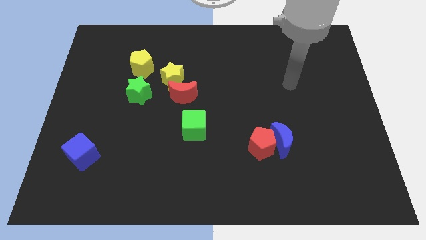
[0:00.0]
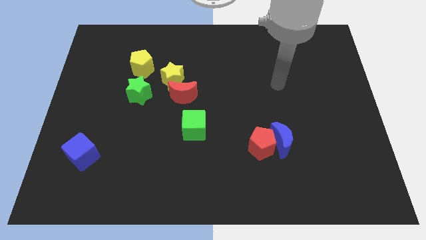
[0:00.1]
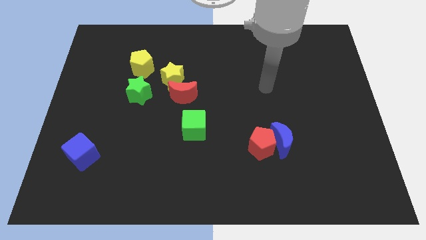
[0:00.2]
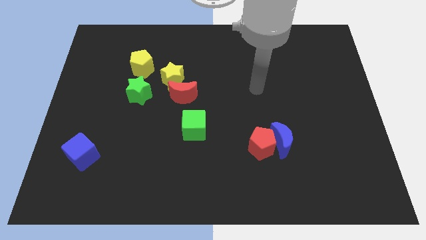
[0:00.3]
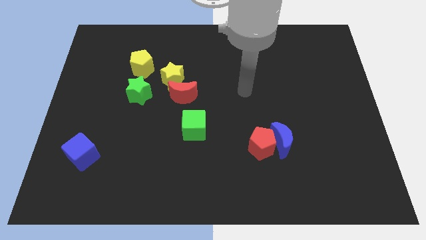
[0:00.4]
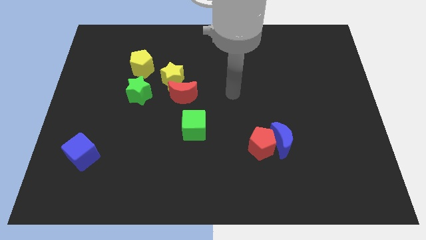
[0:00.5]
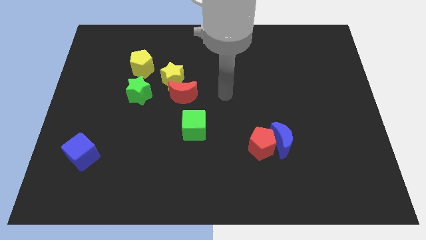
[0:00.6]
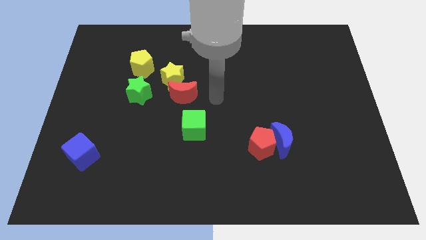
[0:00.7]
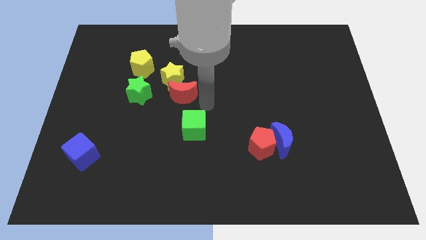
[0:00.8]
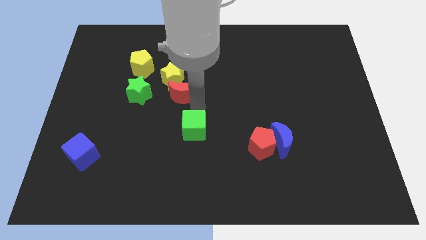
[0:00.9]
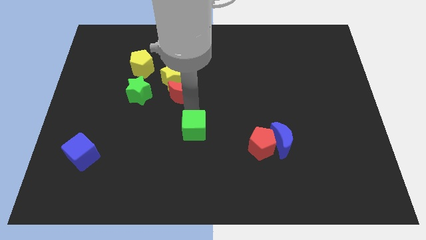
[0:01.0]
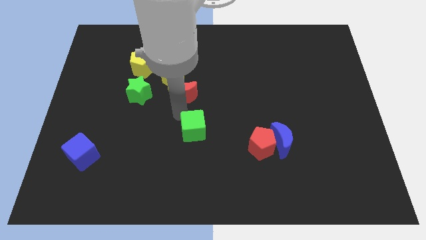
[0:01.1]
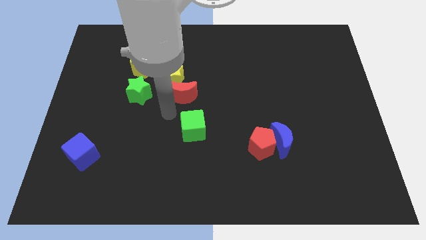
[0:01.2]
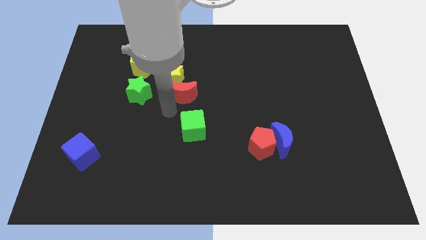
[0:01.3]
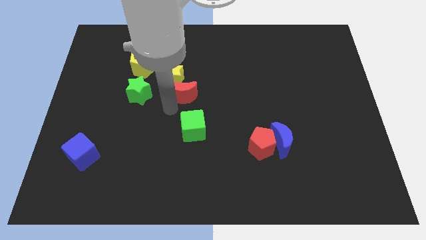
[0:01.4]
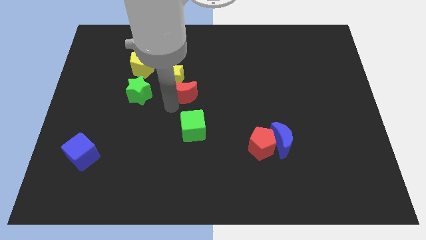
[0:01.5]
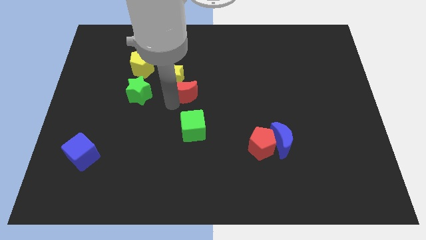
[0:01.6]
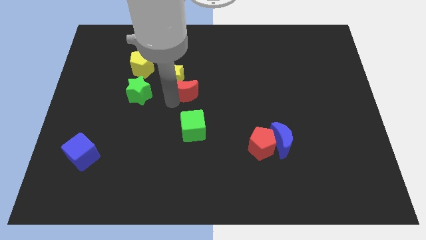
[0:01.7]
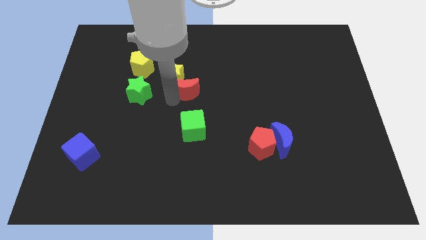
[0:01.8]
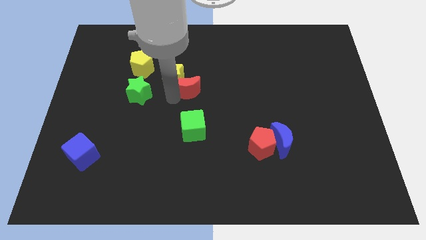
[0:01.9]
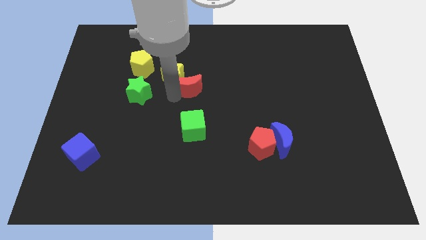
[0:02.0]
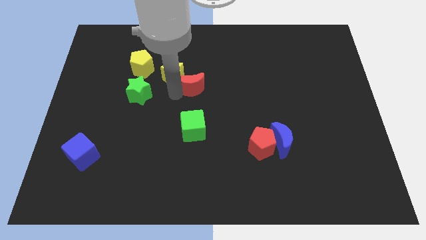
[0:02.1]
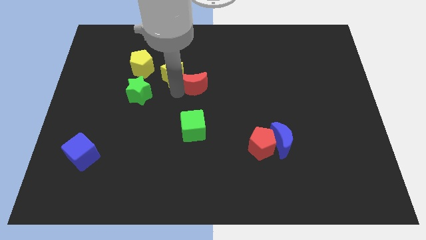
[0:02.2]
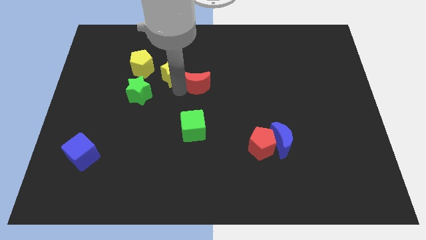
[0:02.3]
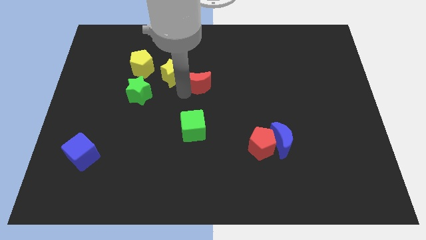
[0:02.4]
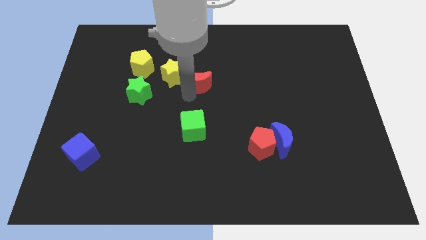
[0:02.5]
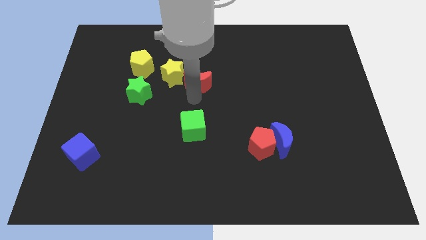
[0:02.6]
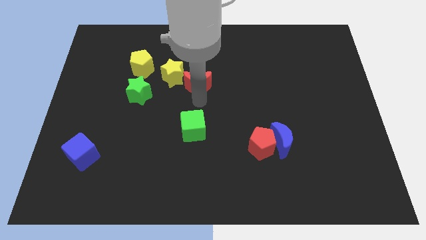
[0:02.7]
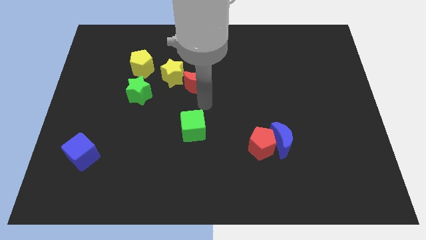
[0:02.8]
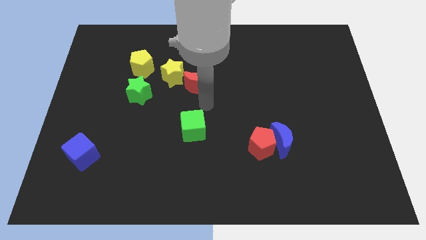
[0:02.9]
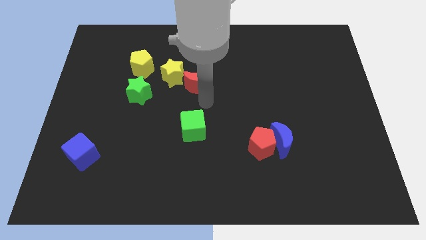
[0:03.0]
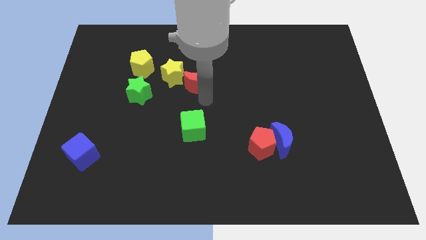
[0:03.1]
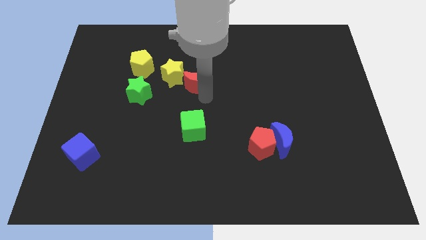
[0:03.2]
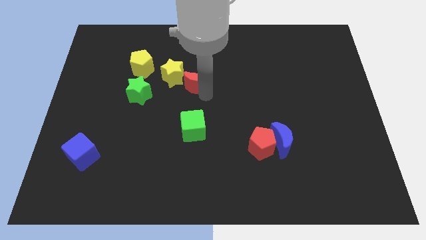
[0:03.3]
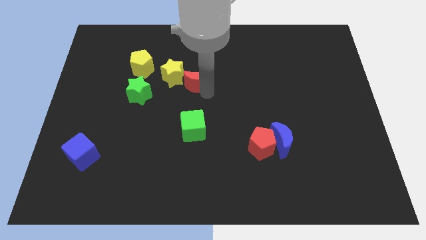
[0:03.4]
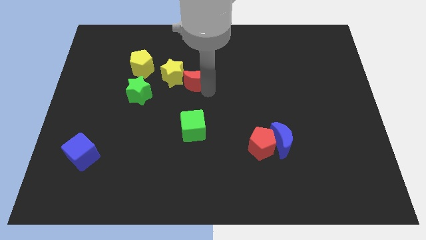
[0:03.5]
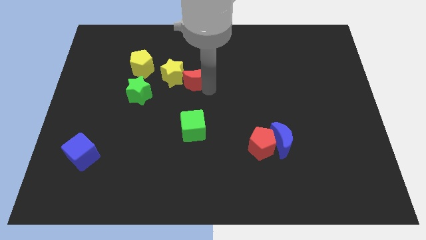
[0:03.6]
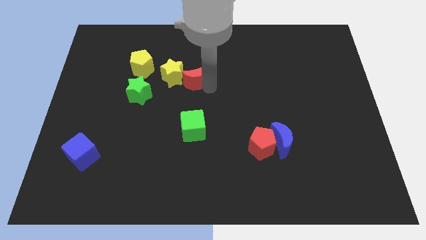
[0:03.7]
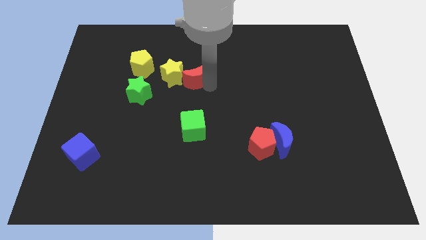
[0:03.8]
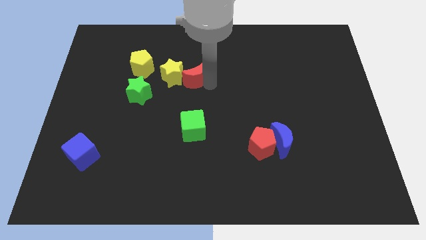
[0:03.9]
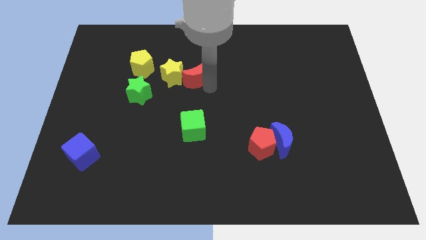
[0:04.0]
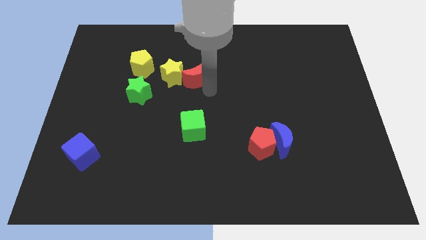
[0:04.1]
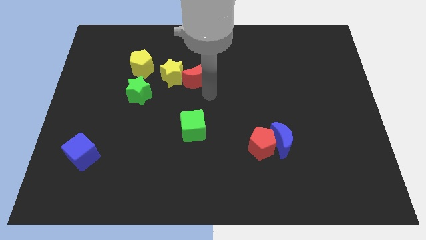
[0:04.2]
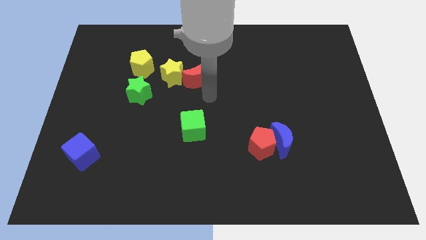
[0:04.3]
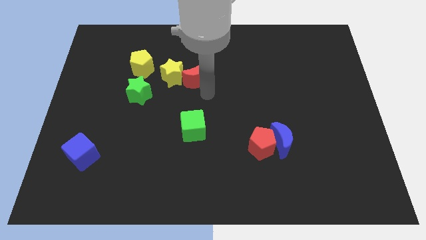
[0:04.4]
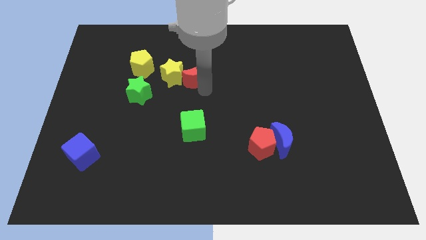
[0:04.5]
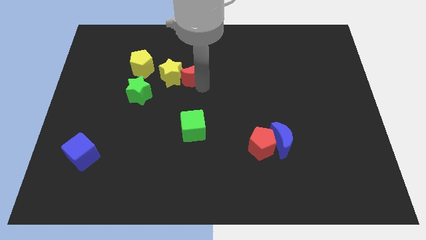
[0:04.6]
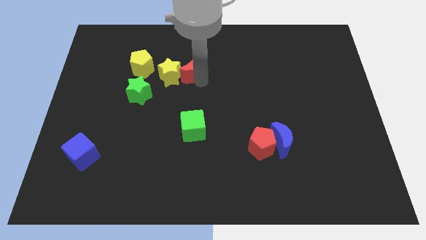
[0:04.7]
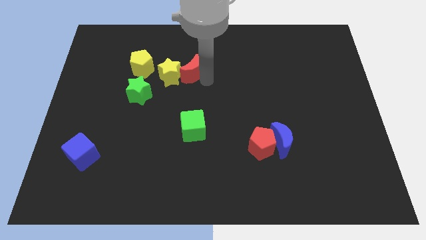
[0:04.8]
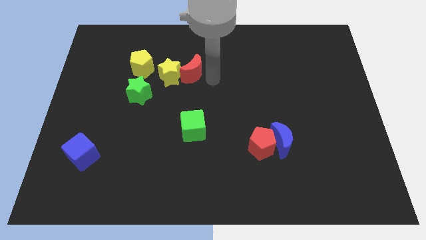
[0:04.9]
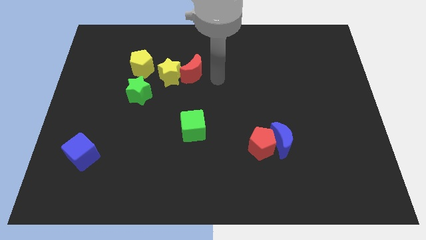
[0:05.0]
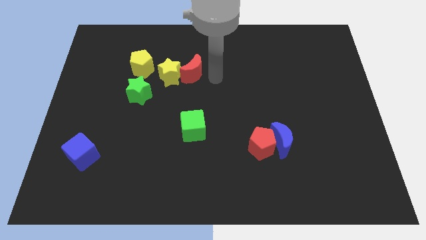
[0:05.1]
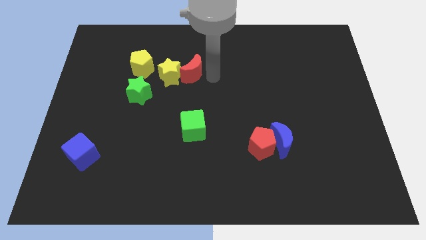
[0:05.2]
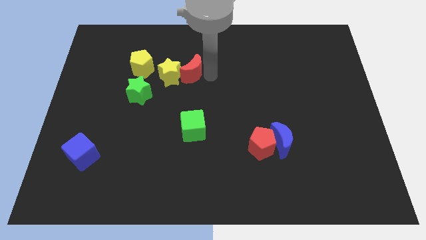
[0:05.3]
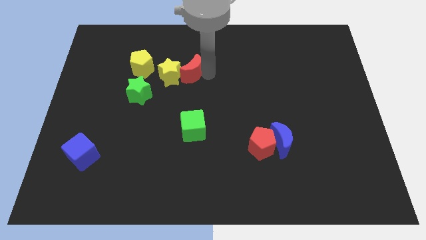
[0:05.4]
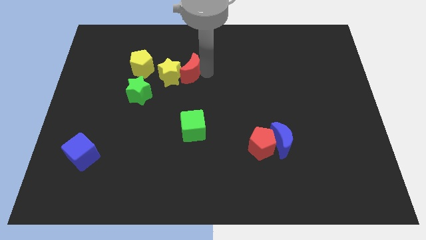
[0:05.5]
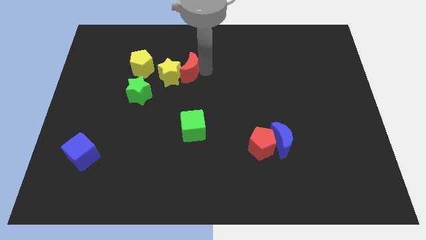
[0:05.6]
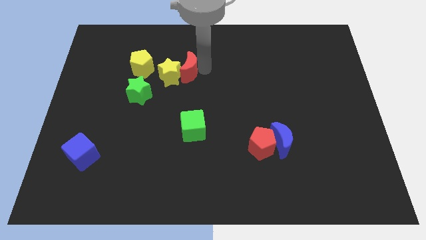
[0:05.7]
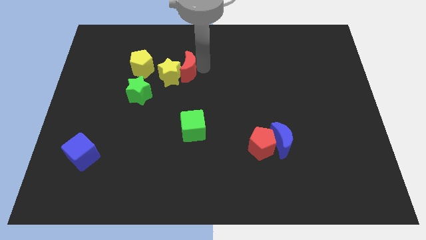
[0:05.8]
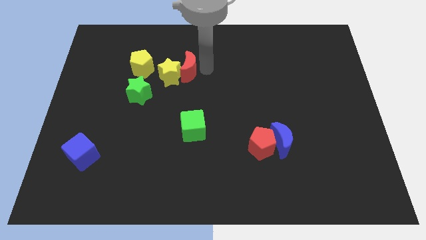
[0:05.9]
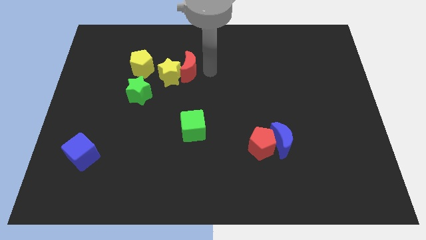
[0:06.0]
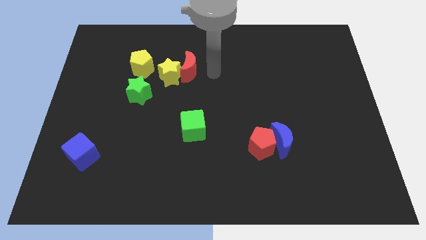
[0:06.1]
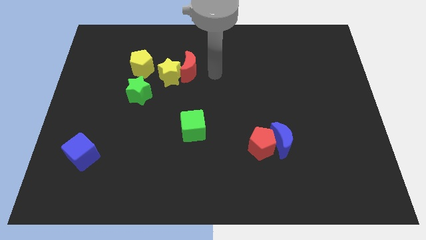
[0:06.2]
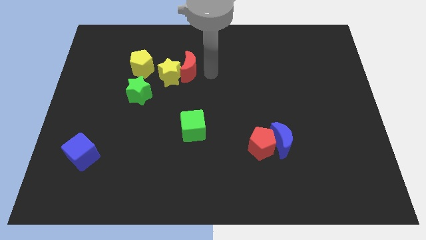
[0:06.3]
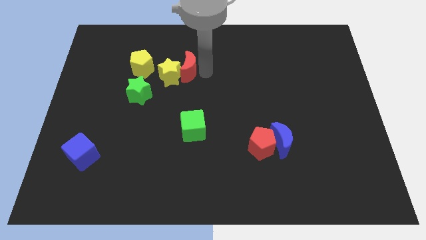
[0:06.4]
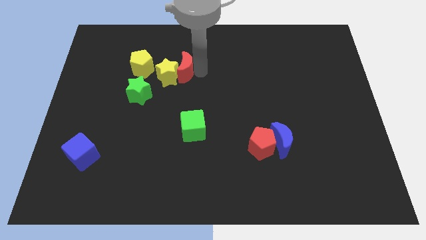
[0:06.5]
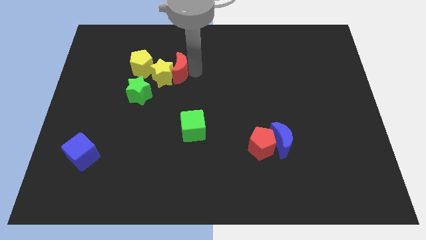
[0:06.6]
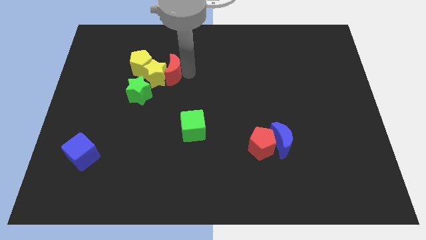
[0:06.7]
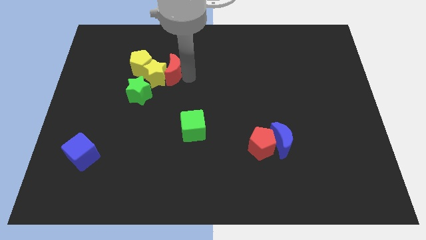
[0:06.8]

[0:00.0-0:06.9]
slide the red moon slightly up and then left

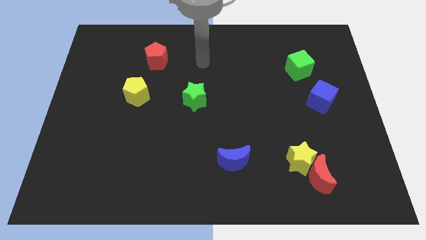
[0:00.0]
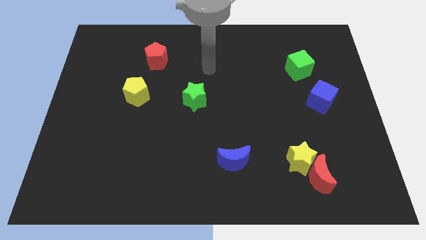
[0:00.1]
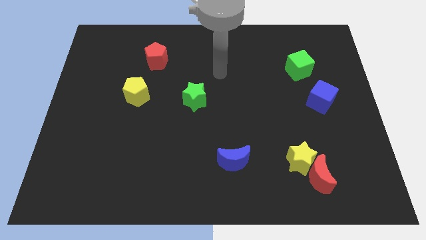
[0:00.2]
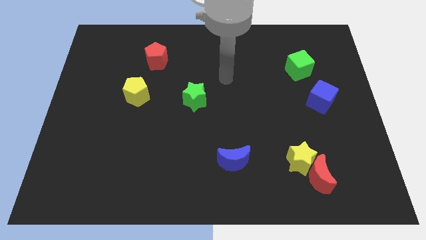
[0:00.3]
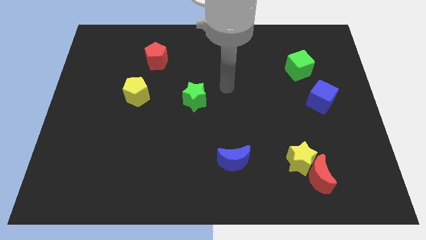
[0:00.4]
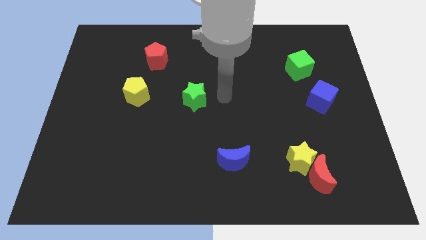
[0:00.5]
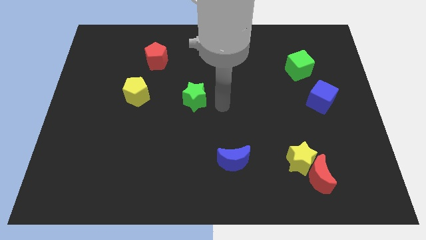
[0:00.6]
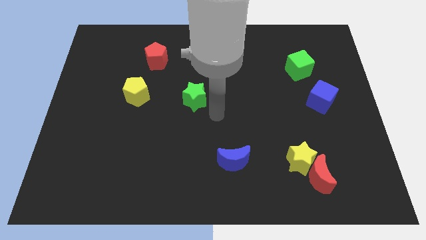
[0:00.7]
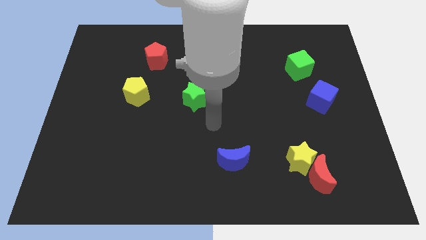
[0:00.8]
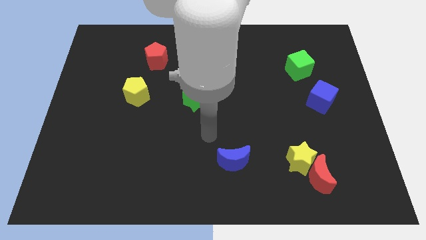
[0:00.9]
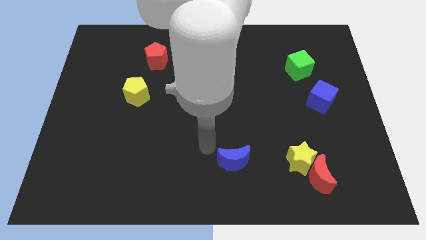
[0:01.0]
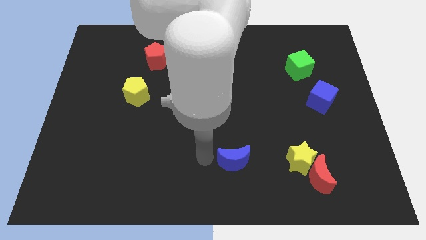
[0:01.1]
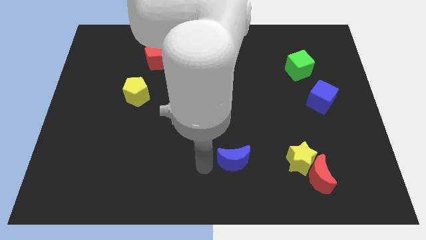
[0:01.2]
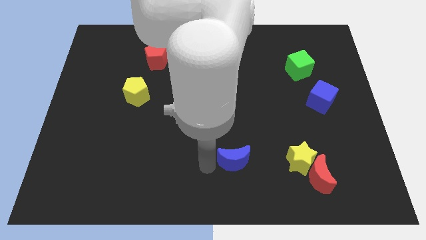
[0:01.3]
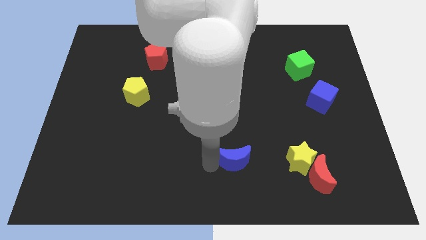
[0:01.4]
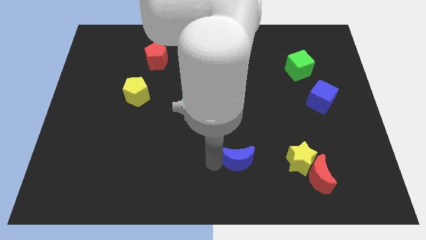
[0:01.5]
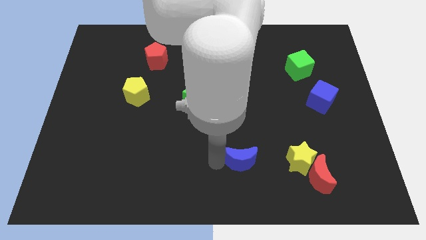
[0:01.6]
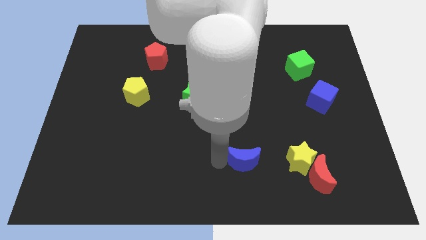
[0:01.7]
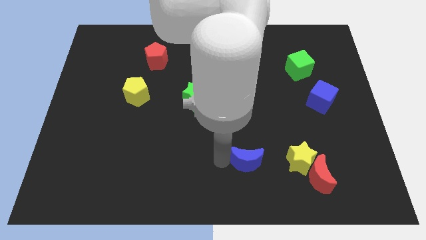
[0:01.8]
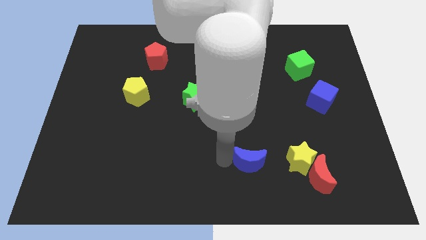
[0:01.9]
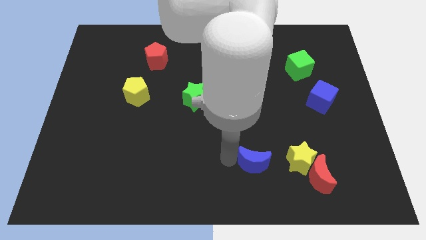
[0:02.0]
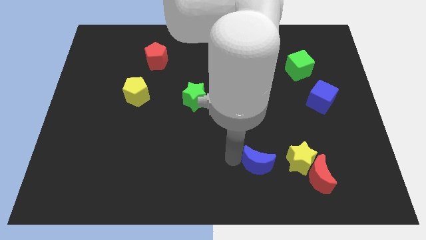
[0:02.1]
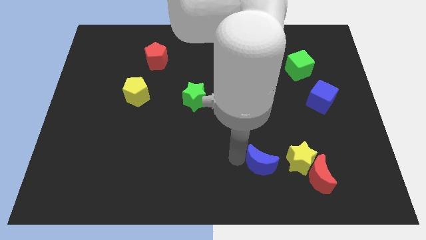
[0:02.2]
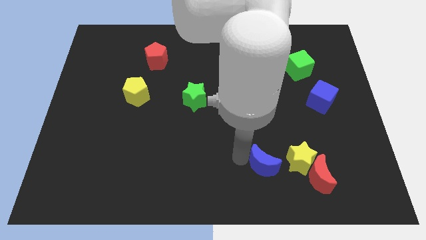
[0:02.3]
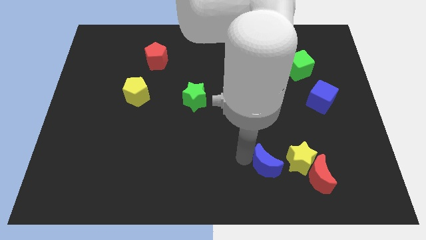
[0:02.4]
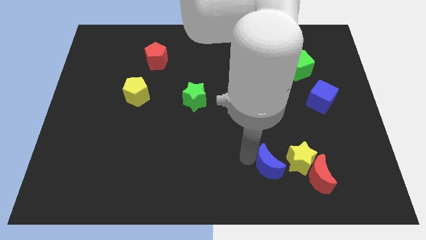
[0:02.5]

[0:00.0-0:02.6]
slide the blue moon to the right a bit
